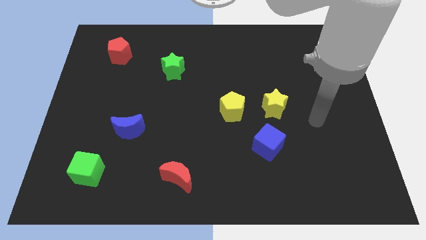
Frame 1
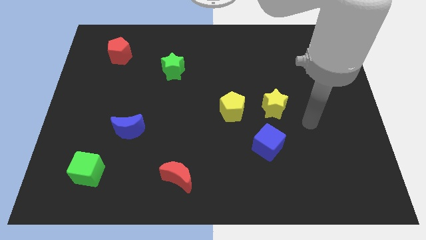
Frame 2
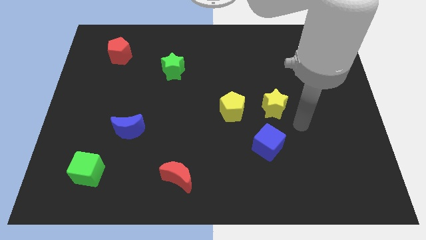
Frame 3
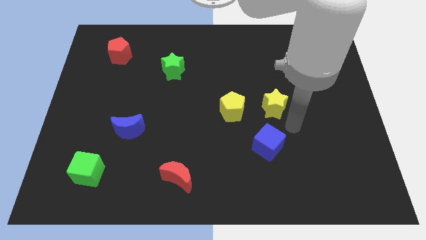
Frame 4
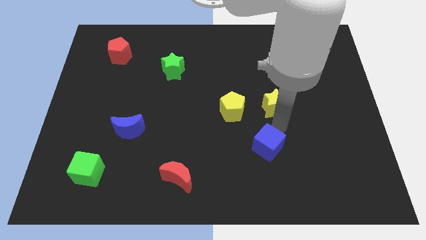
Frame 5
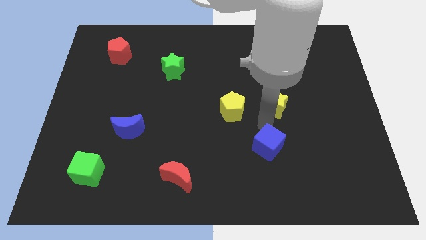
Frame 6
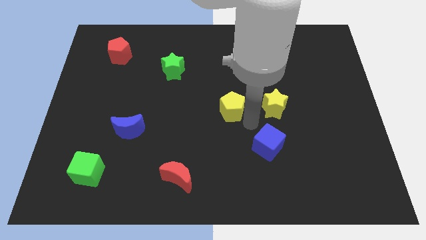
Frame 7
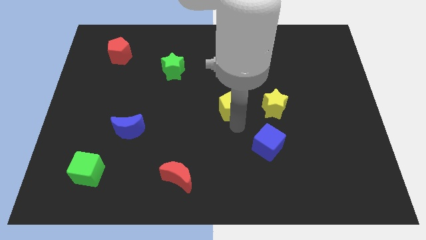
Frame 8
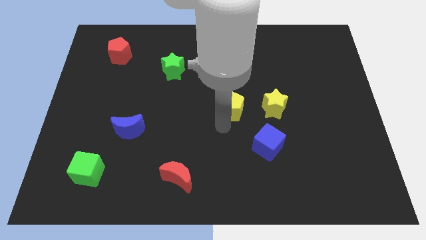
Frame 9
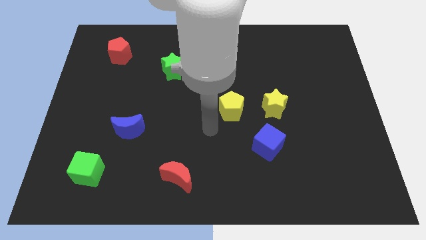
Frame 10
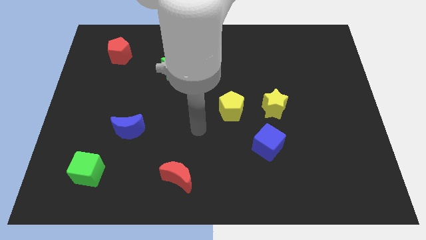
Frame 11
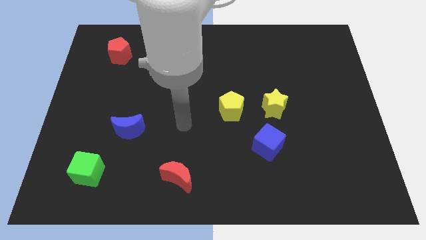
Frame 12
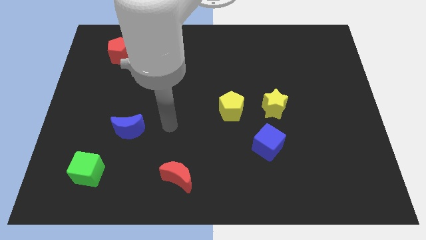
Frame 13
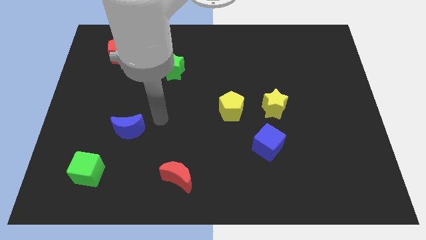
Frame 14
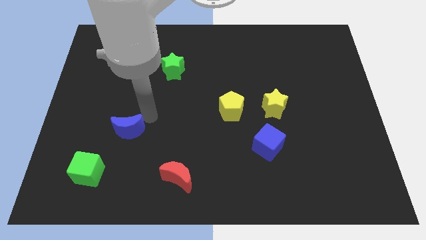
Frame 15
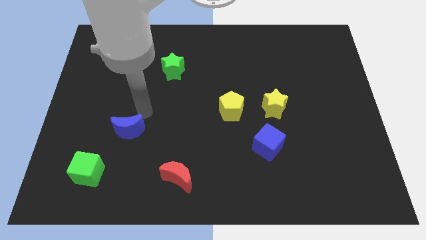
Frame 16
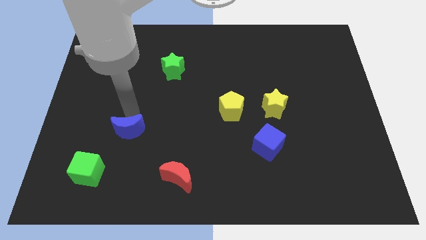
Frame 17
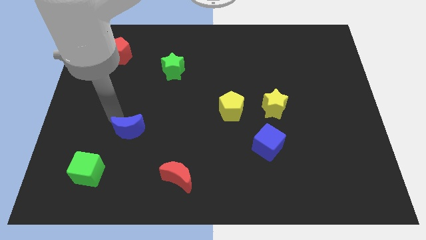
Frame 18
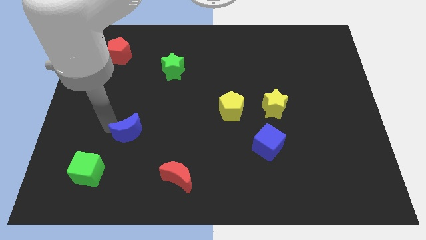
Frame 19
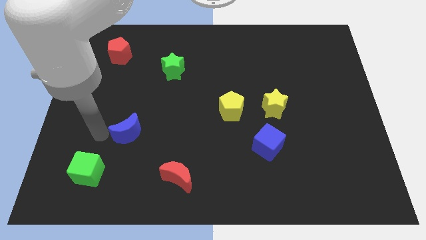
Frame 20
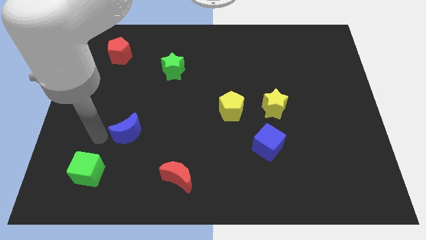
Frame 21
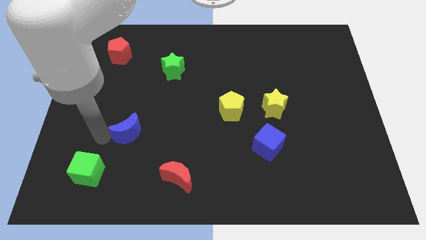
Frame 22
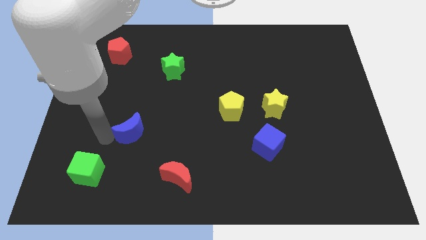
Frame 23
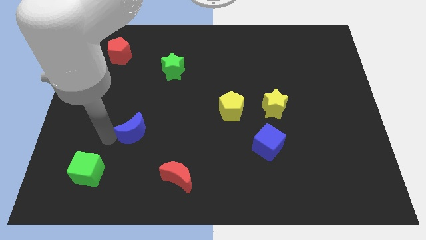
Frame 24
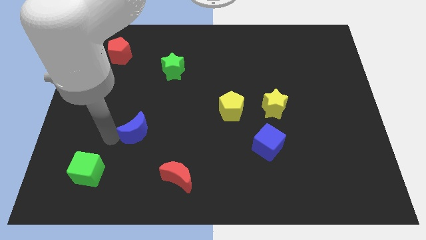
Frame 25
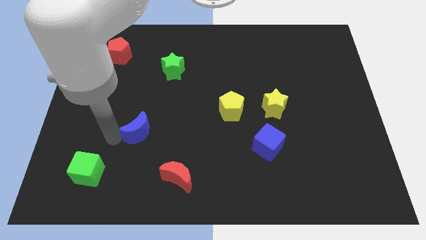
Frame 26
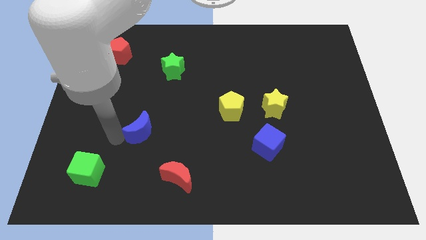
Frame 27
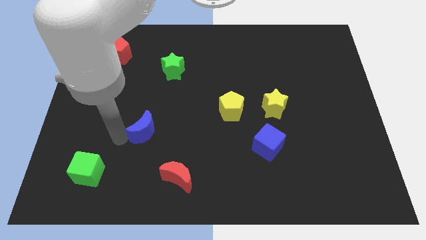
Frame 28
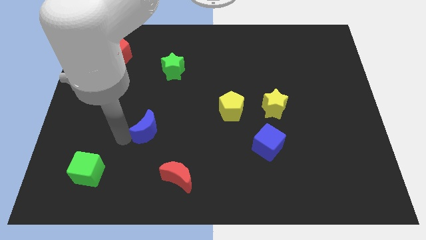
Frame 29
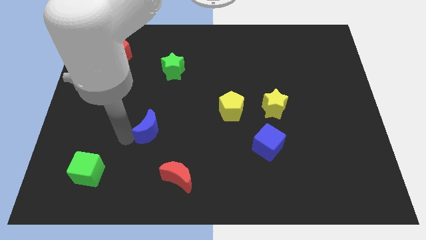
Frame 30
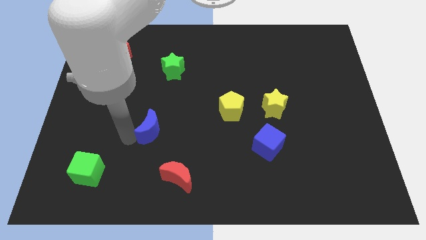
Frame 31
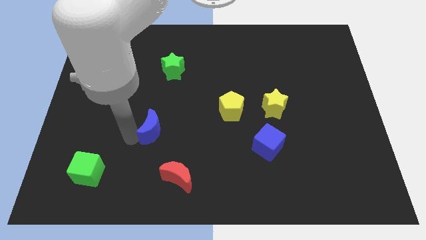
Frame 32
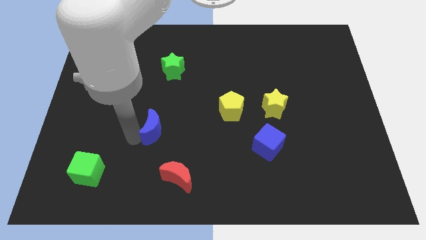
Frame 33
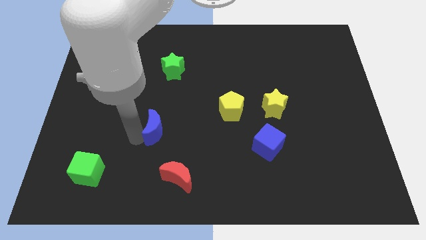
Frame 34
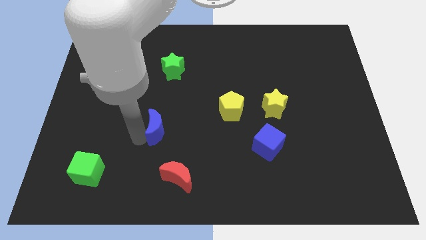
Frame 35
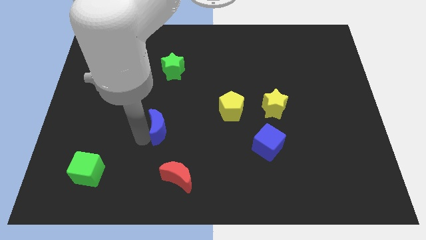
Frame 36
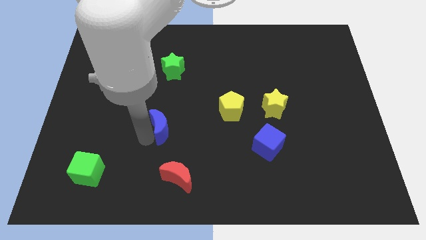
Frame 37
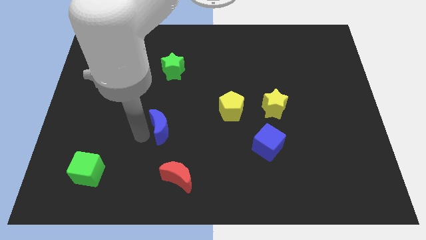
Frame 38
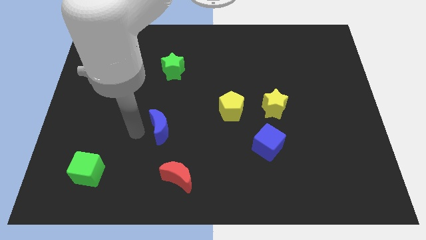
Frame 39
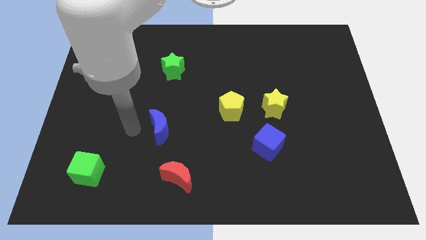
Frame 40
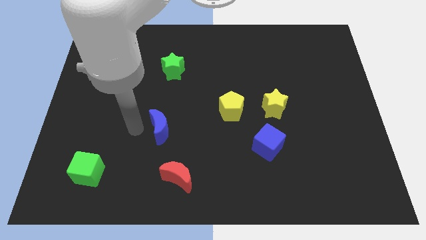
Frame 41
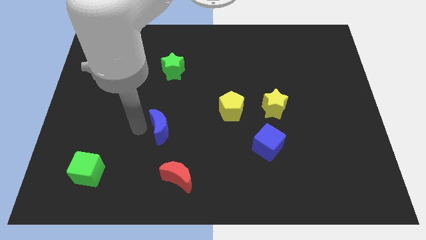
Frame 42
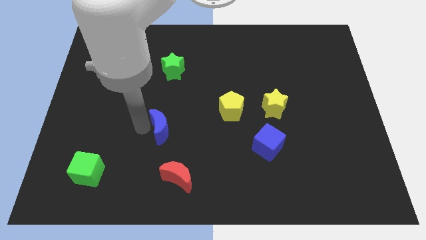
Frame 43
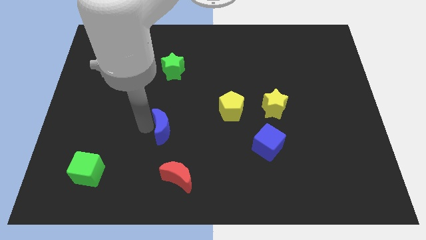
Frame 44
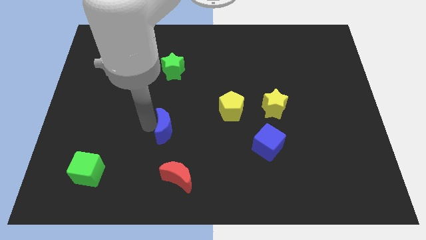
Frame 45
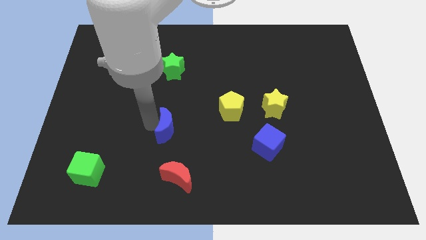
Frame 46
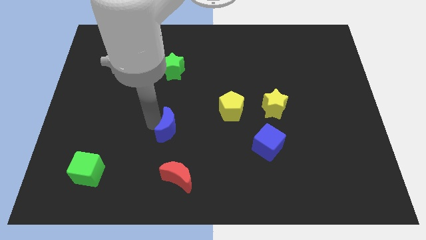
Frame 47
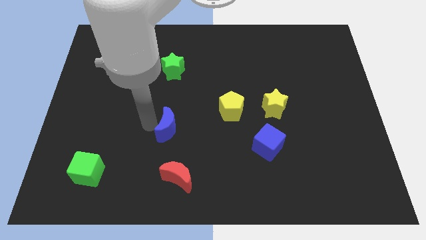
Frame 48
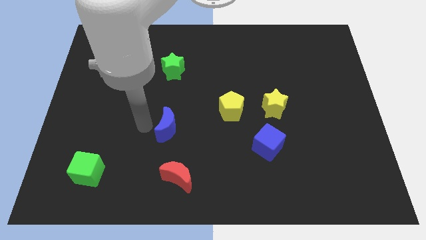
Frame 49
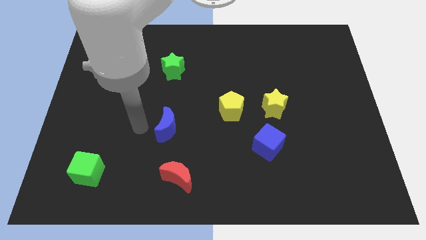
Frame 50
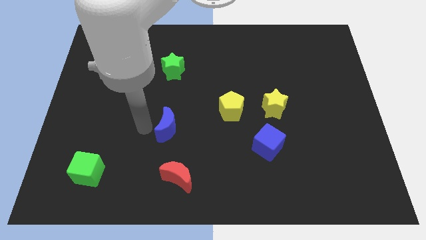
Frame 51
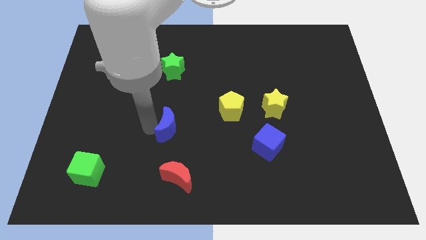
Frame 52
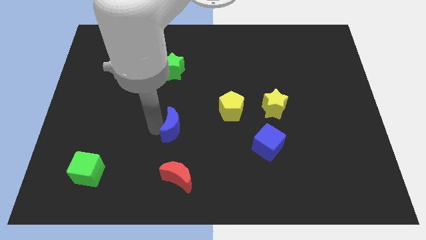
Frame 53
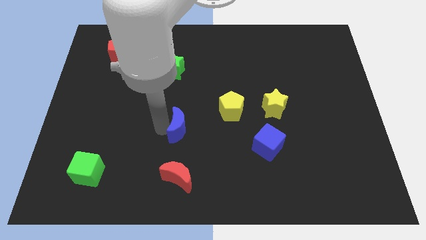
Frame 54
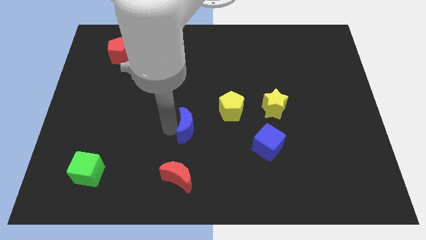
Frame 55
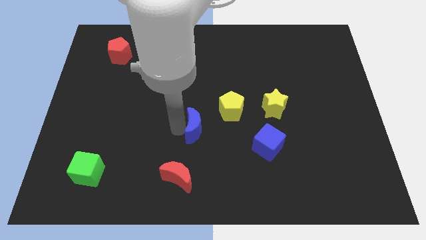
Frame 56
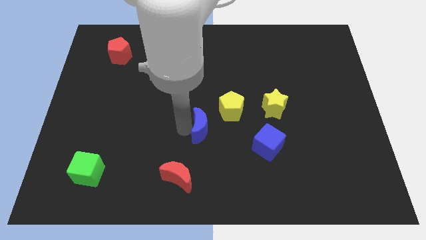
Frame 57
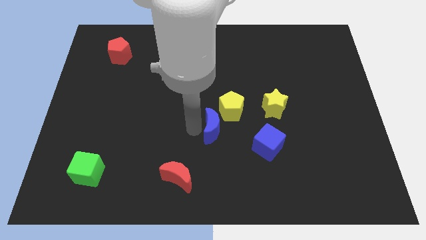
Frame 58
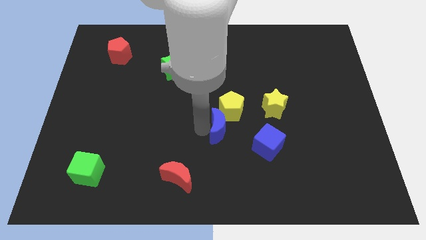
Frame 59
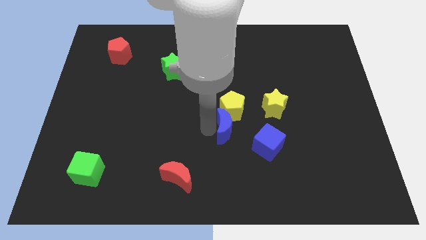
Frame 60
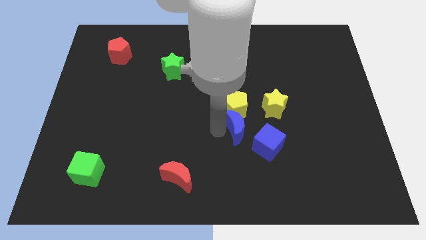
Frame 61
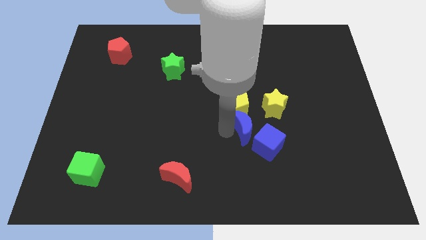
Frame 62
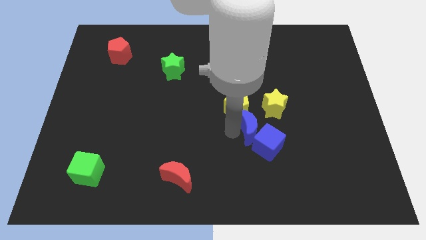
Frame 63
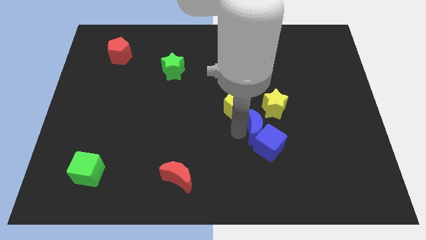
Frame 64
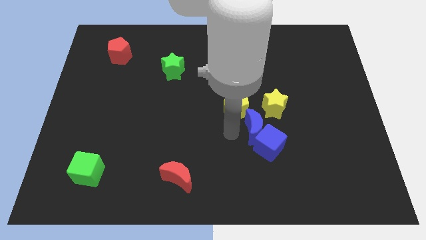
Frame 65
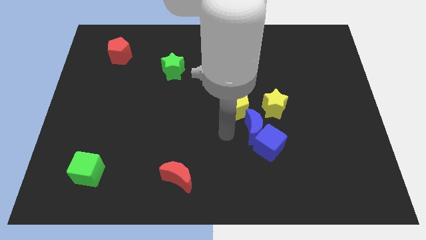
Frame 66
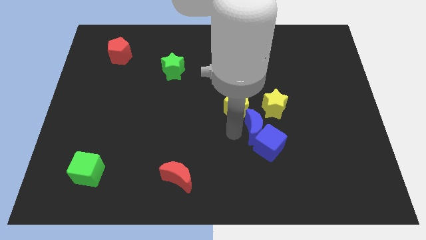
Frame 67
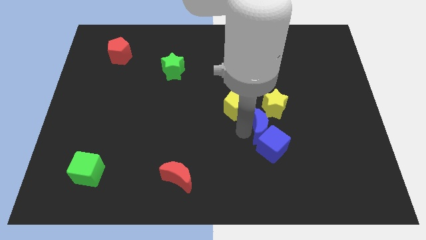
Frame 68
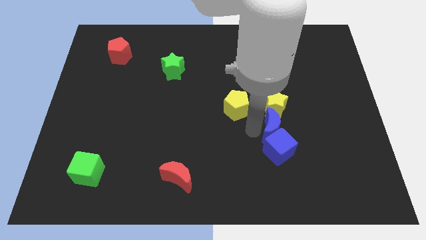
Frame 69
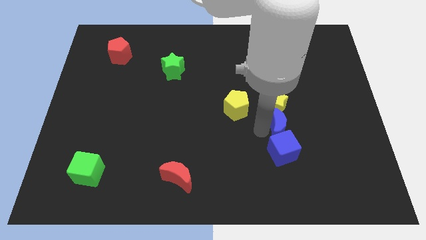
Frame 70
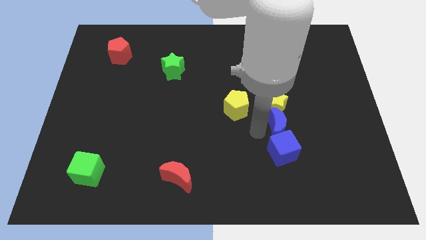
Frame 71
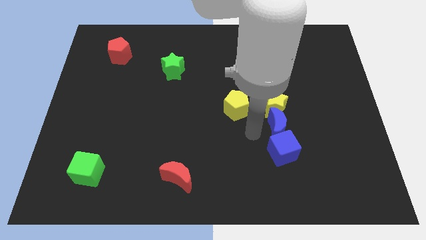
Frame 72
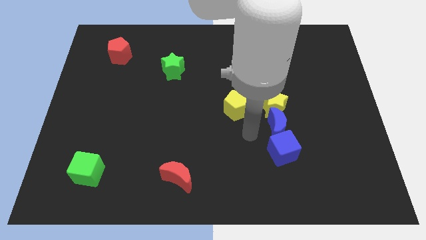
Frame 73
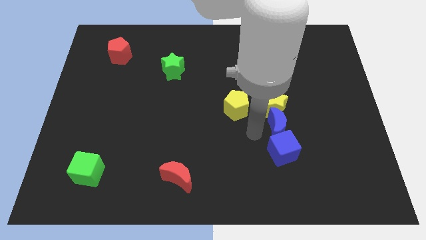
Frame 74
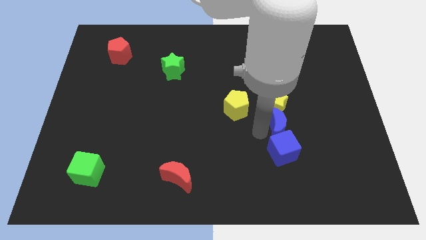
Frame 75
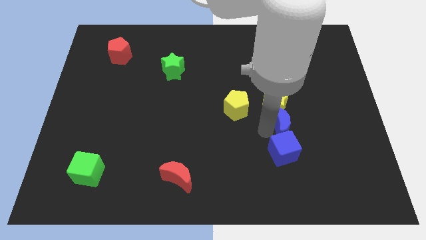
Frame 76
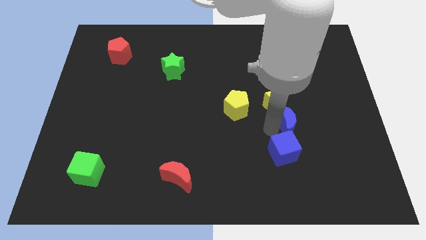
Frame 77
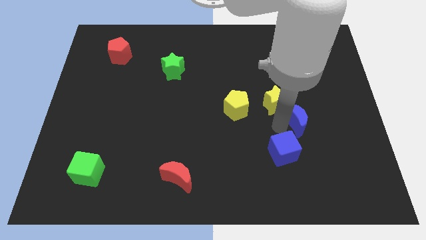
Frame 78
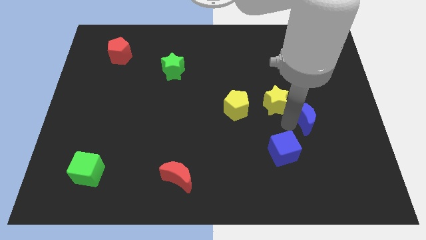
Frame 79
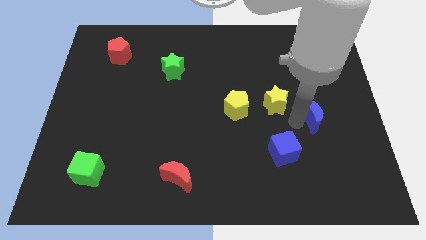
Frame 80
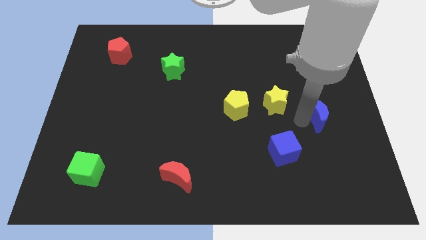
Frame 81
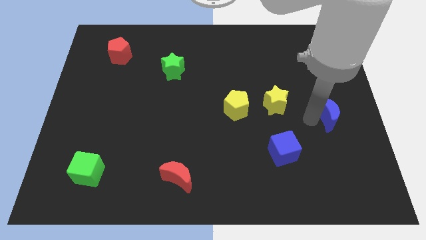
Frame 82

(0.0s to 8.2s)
put the blue moon to the center right

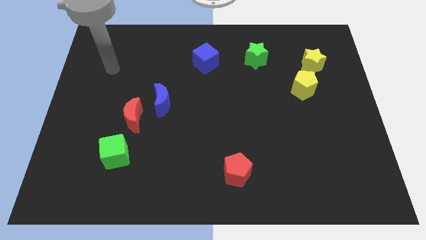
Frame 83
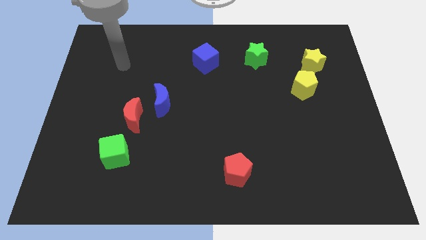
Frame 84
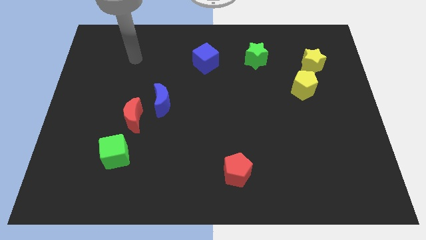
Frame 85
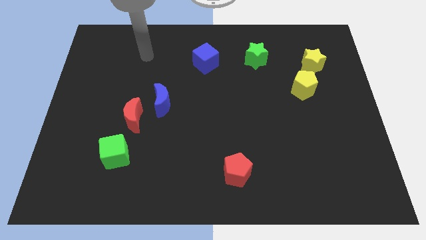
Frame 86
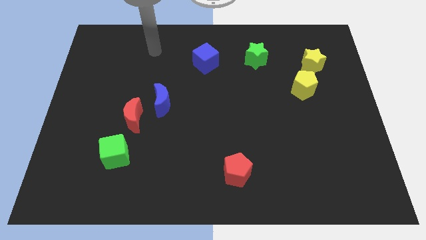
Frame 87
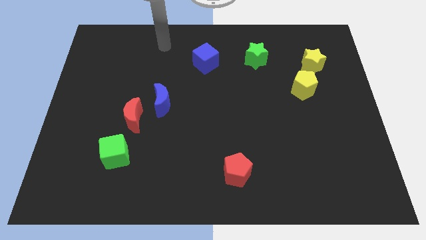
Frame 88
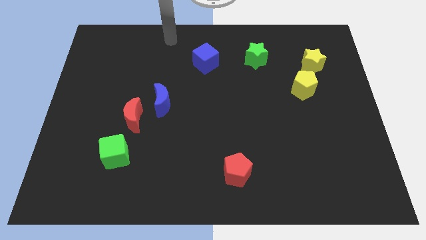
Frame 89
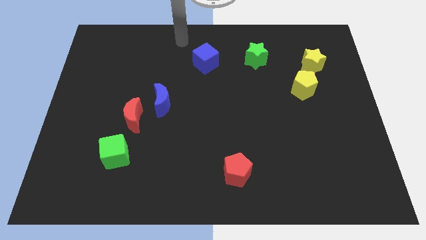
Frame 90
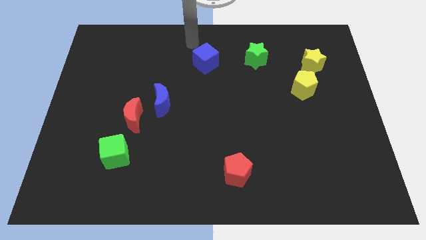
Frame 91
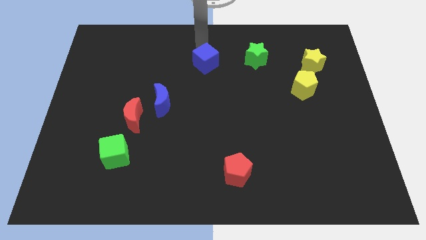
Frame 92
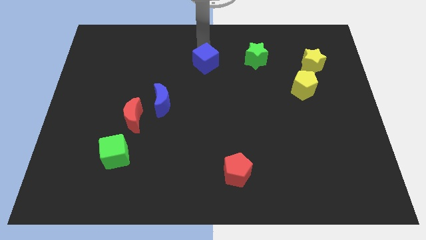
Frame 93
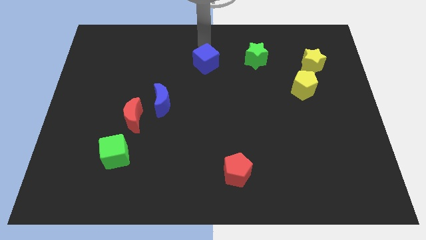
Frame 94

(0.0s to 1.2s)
put the blue cube to the center of the board
